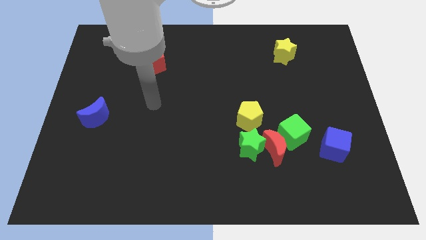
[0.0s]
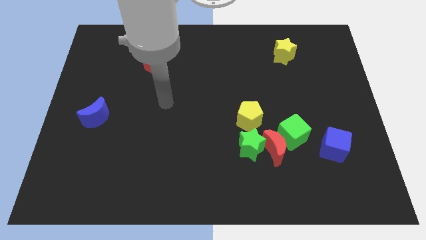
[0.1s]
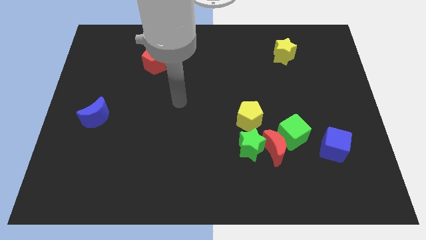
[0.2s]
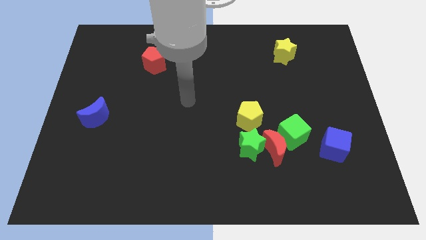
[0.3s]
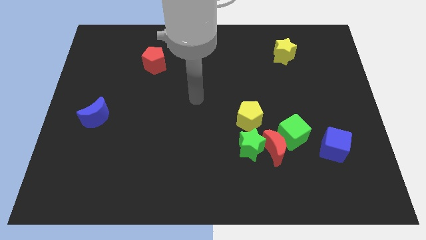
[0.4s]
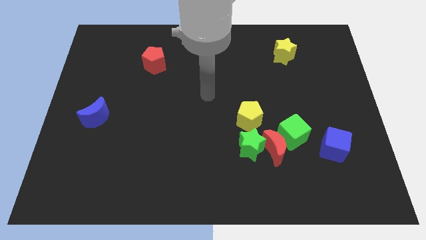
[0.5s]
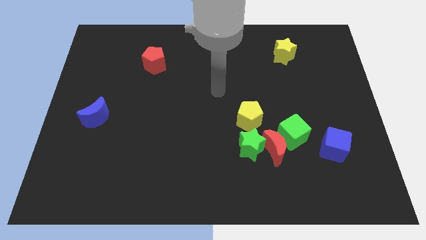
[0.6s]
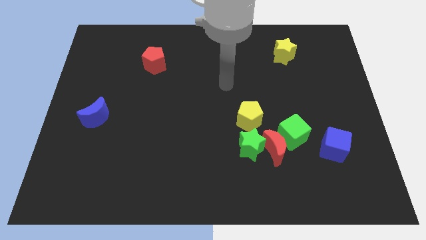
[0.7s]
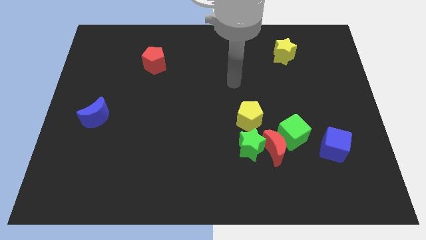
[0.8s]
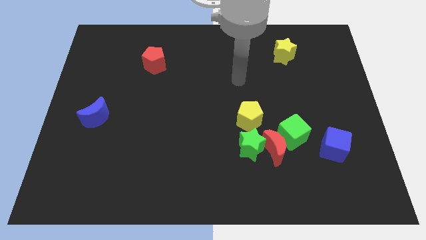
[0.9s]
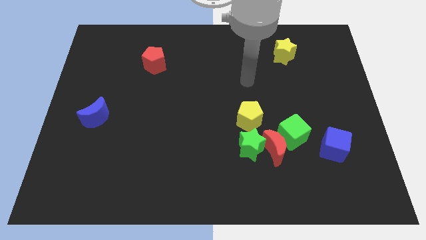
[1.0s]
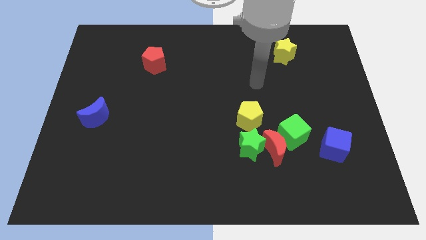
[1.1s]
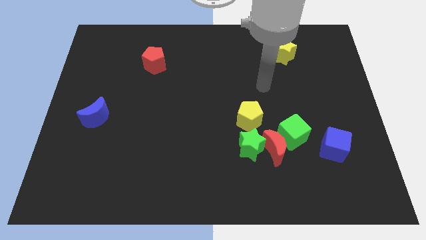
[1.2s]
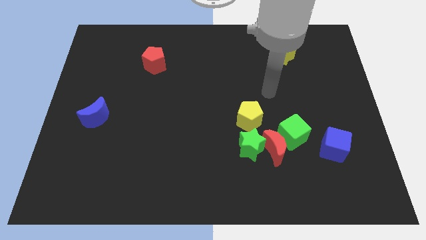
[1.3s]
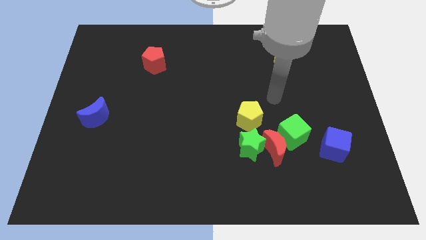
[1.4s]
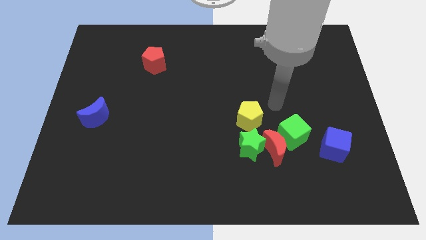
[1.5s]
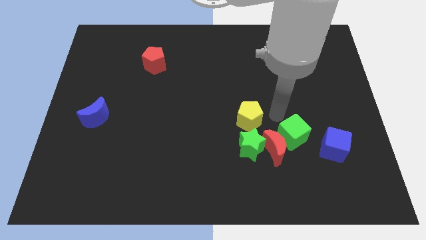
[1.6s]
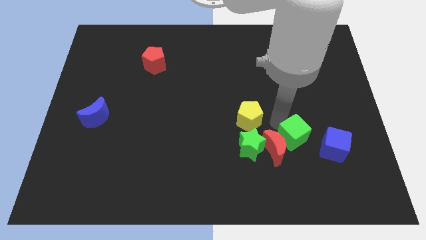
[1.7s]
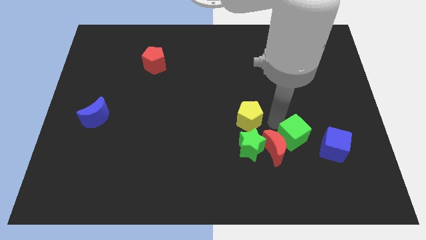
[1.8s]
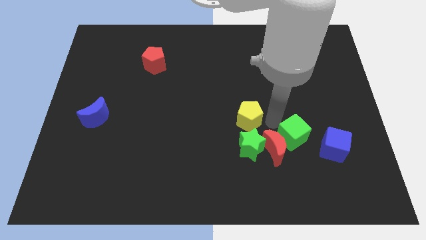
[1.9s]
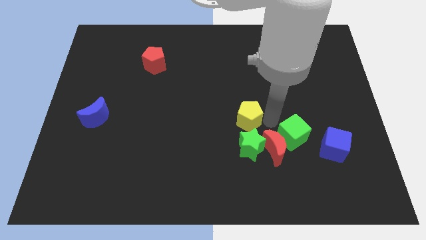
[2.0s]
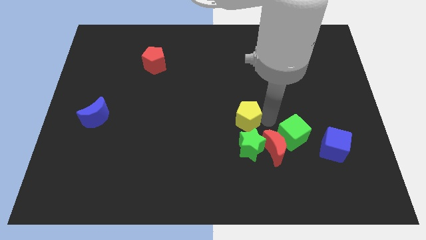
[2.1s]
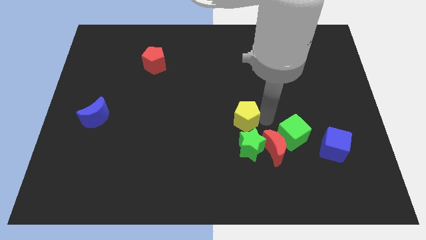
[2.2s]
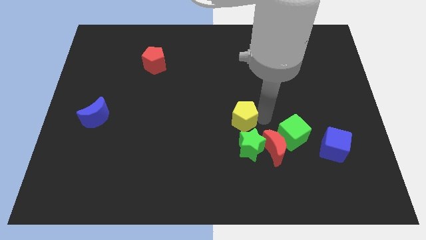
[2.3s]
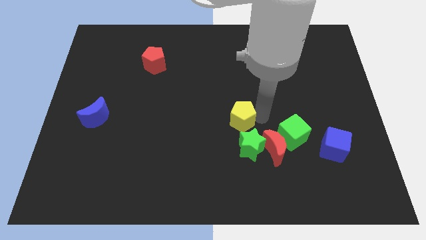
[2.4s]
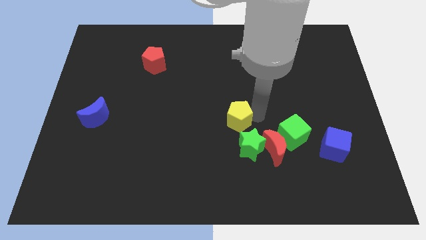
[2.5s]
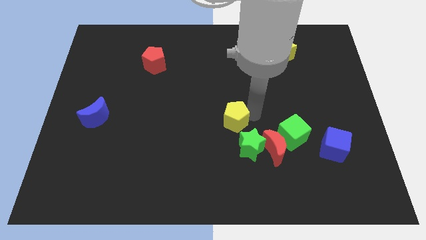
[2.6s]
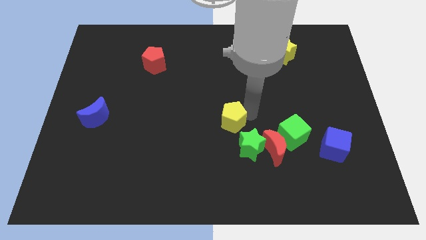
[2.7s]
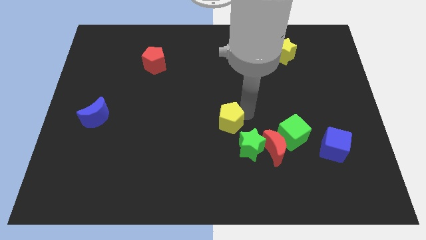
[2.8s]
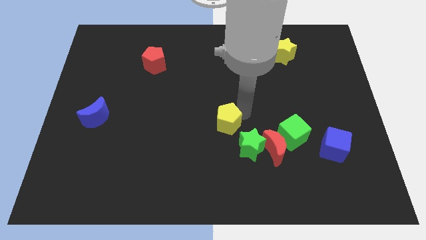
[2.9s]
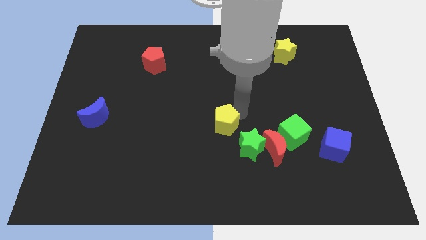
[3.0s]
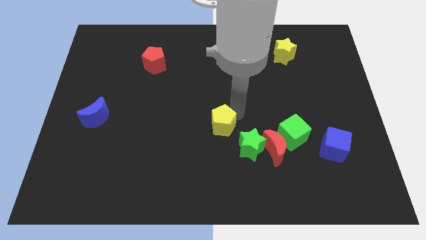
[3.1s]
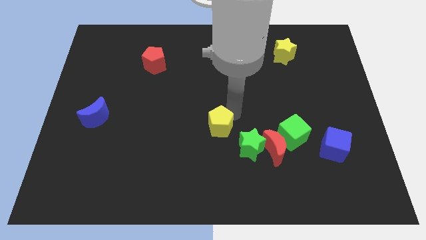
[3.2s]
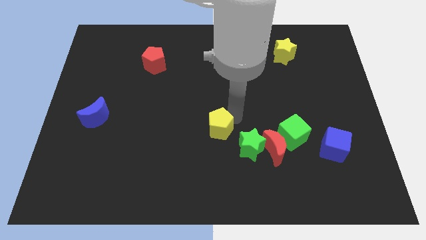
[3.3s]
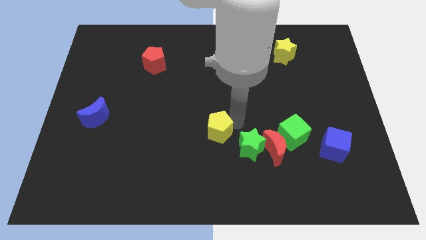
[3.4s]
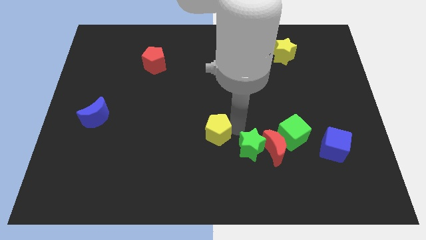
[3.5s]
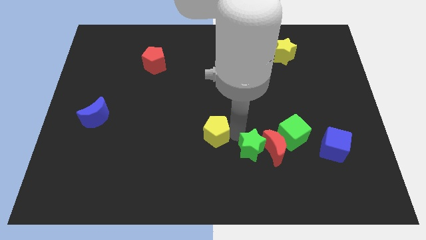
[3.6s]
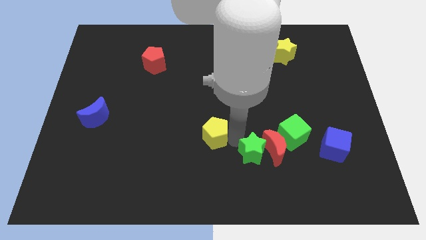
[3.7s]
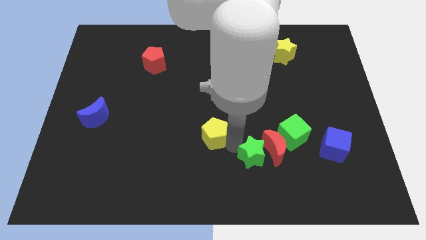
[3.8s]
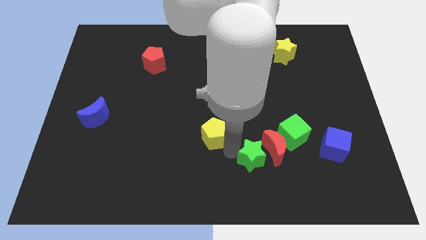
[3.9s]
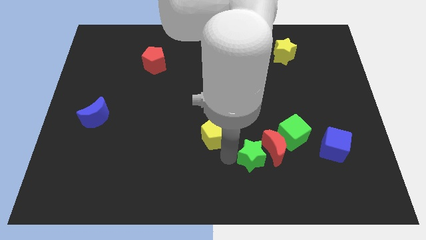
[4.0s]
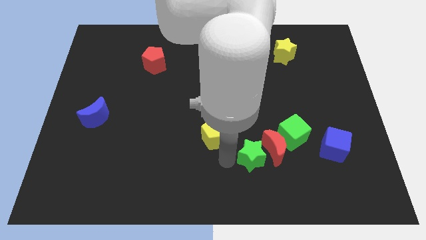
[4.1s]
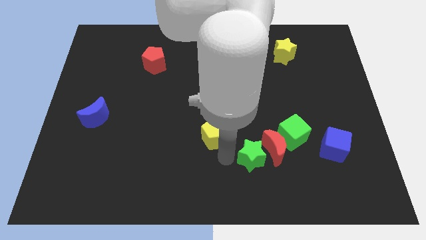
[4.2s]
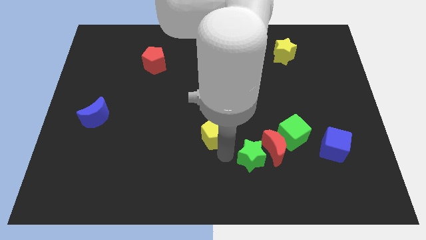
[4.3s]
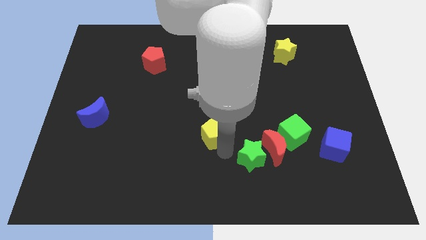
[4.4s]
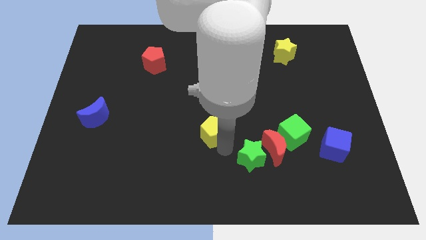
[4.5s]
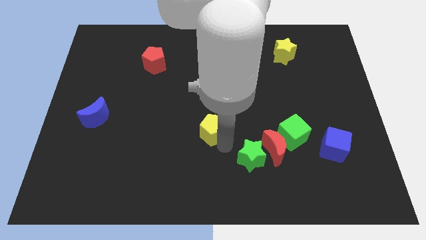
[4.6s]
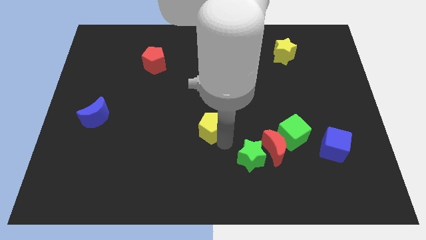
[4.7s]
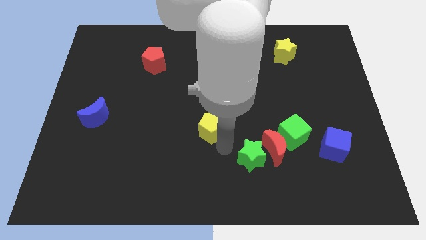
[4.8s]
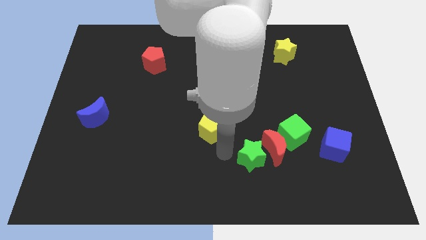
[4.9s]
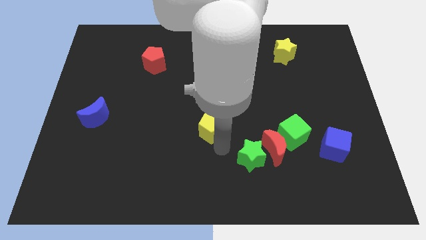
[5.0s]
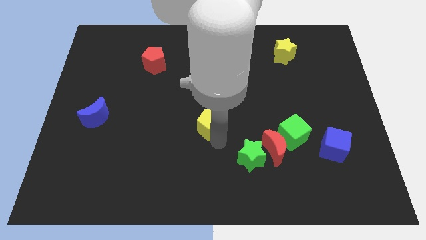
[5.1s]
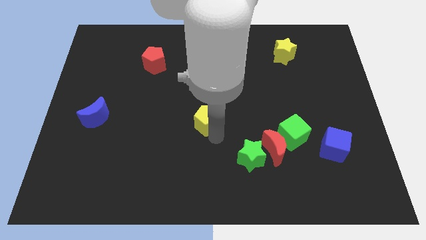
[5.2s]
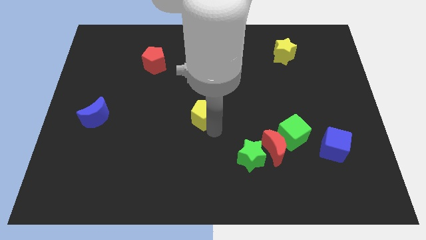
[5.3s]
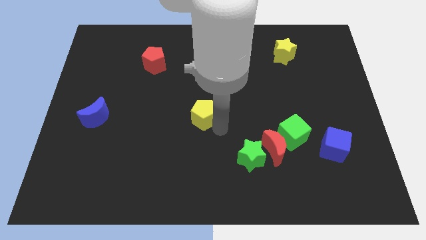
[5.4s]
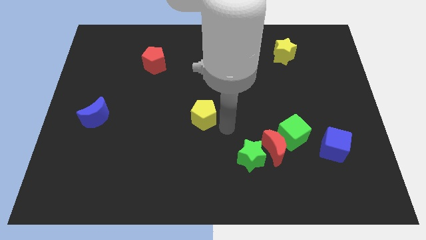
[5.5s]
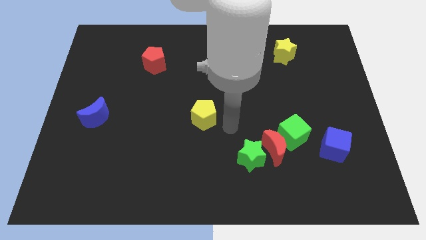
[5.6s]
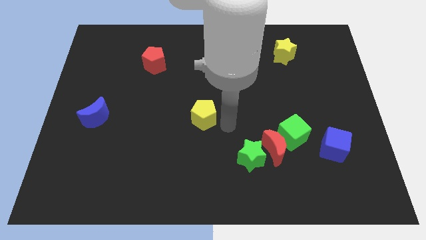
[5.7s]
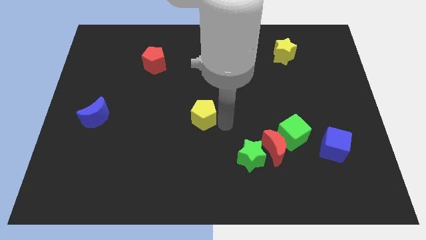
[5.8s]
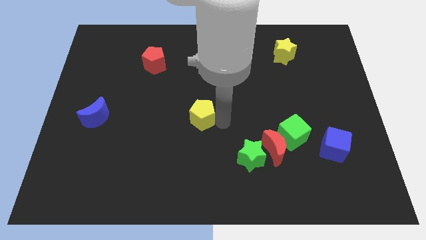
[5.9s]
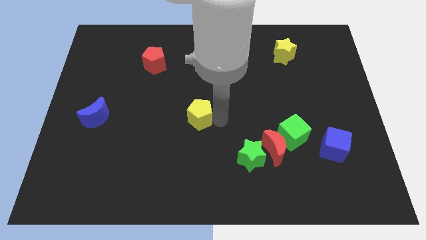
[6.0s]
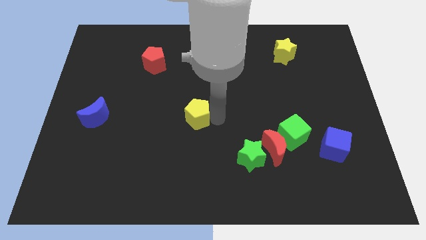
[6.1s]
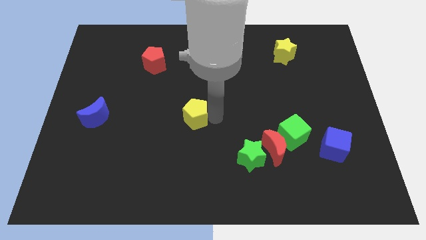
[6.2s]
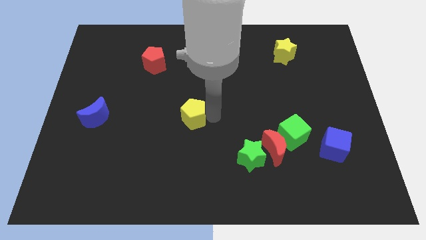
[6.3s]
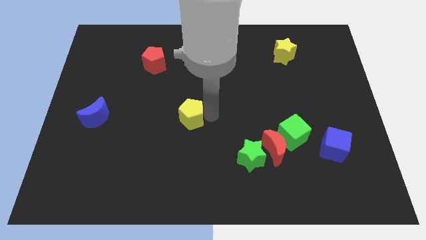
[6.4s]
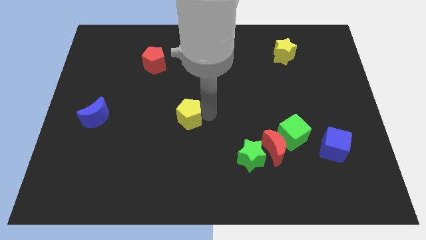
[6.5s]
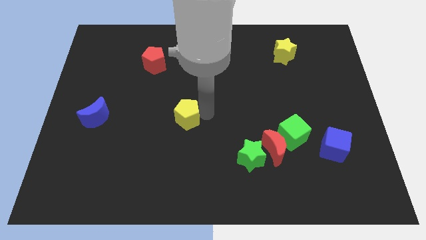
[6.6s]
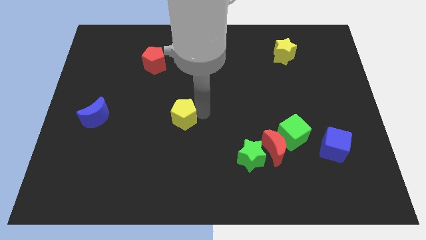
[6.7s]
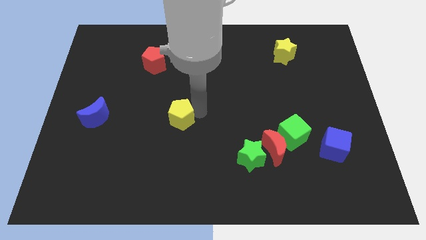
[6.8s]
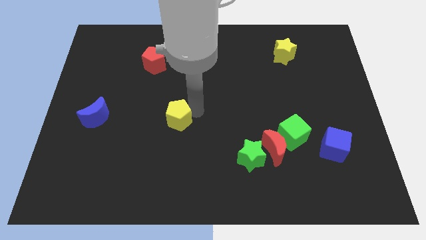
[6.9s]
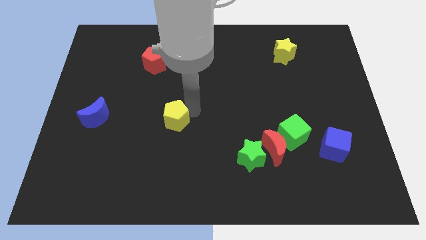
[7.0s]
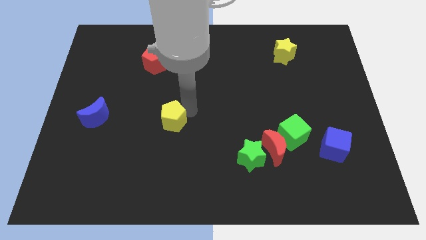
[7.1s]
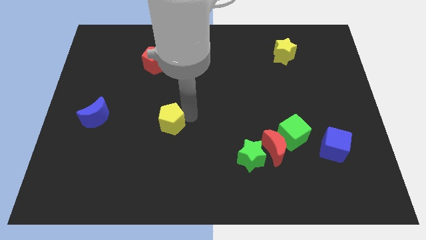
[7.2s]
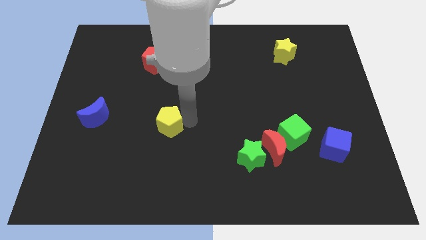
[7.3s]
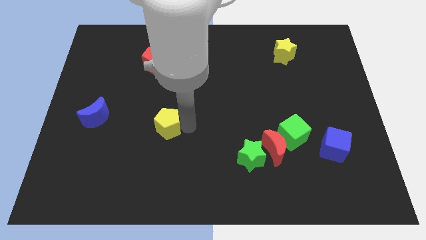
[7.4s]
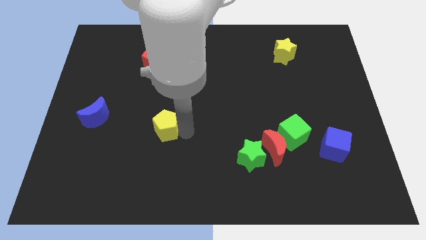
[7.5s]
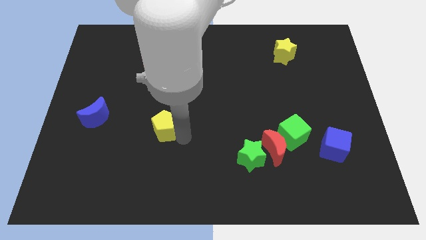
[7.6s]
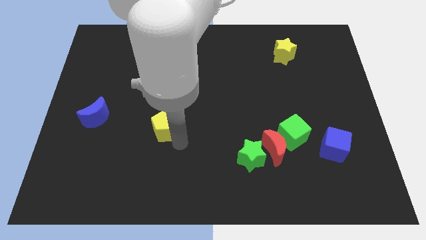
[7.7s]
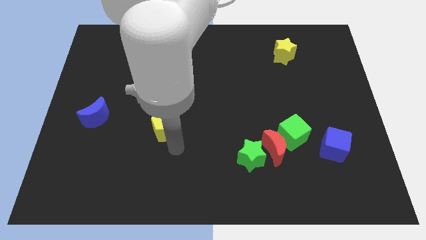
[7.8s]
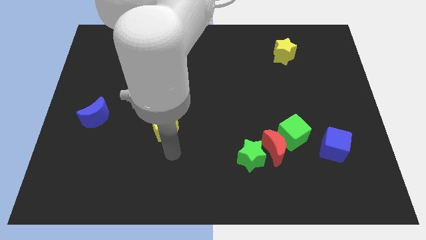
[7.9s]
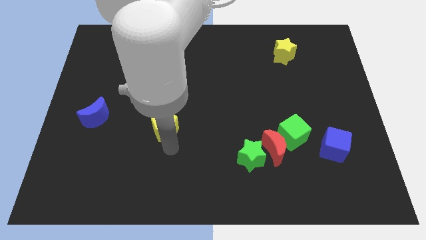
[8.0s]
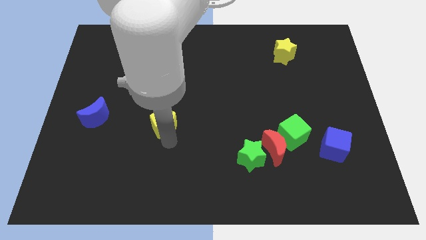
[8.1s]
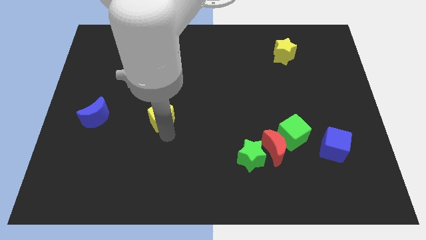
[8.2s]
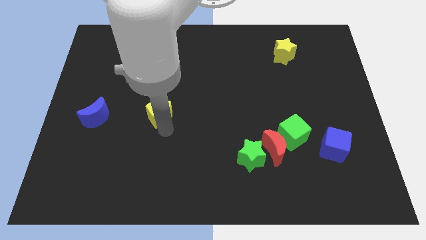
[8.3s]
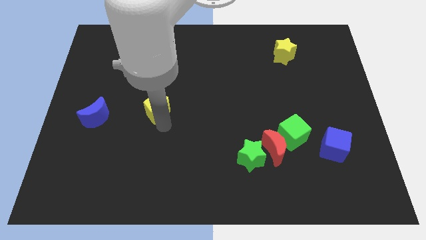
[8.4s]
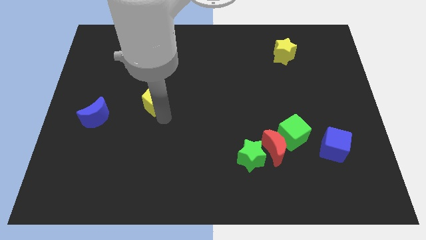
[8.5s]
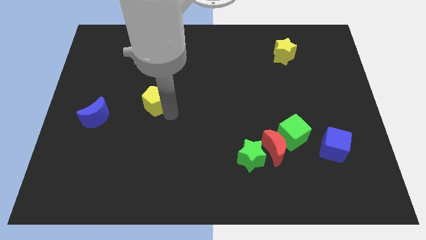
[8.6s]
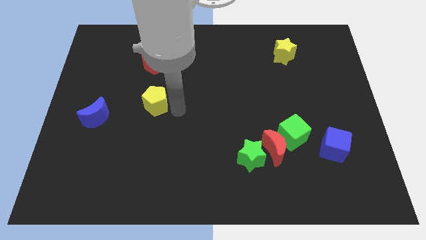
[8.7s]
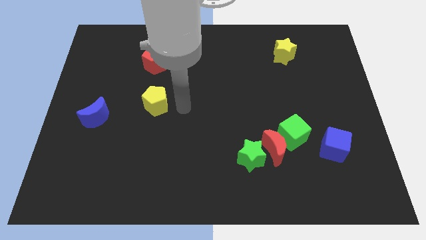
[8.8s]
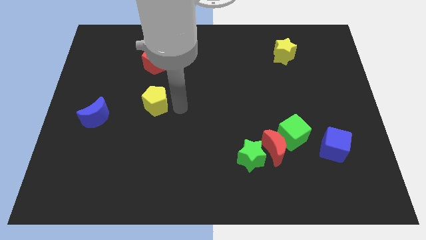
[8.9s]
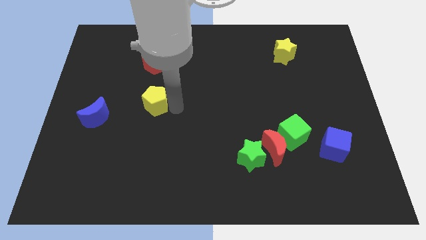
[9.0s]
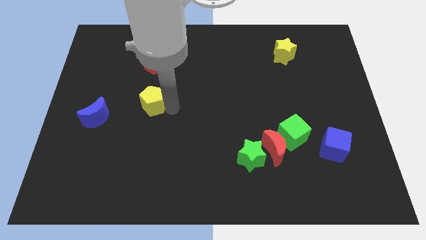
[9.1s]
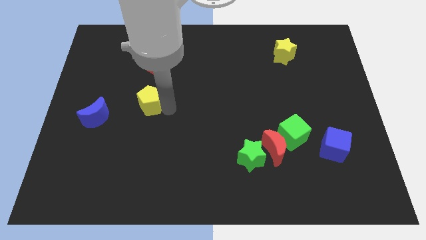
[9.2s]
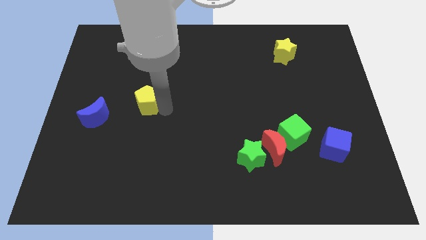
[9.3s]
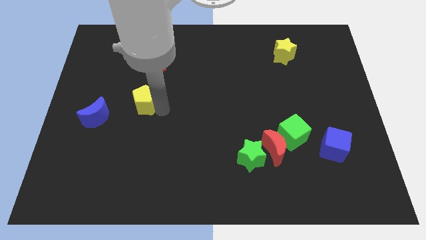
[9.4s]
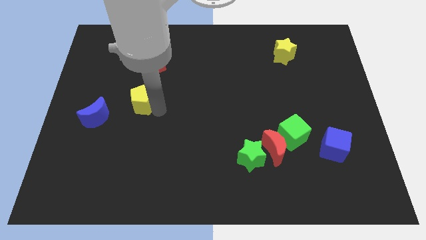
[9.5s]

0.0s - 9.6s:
push the yellow pentagon to the top right of the blue moon
